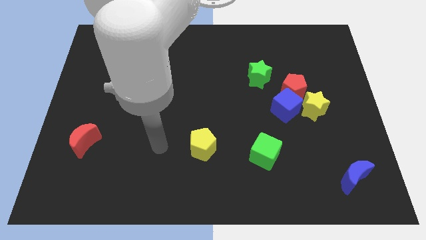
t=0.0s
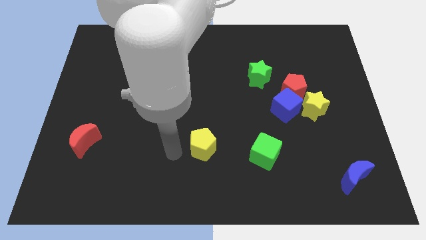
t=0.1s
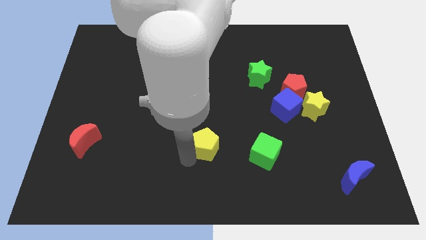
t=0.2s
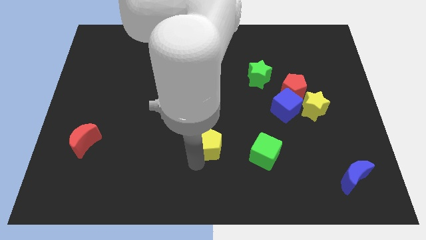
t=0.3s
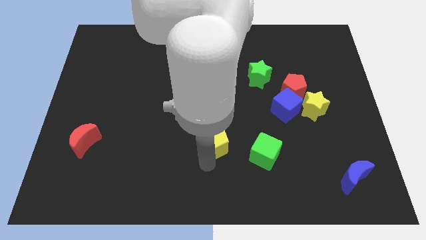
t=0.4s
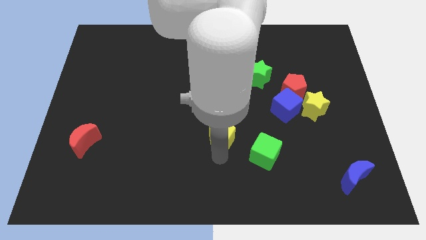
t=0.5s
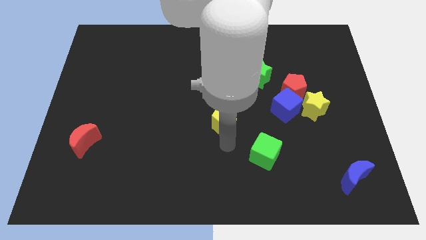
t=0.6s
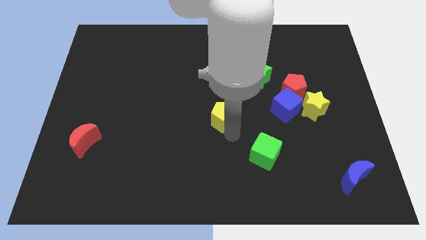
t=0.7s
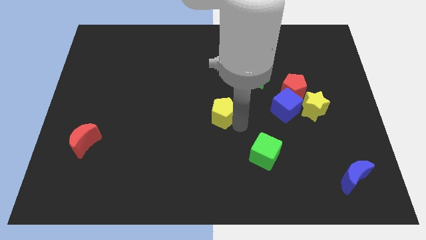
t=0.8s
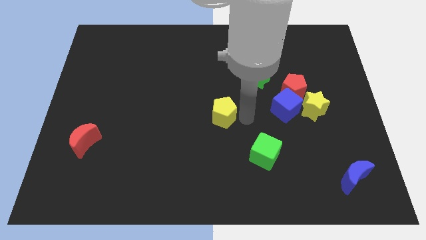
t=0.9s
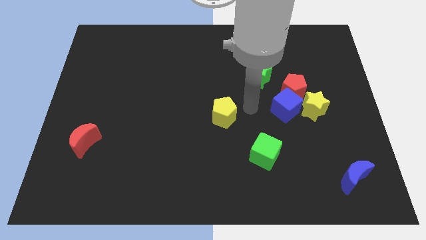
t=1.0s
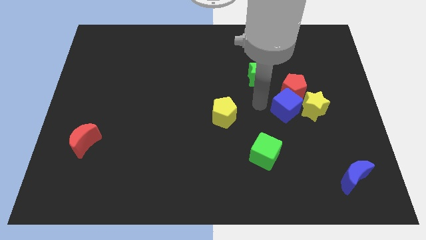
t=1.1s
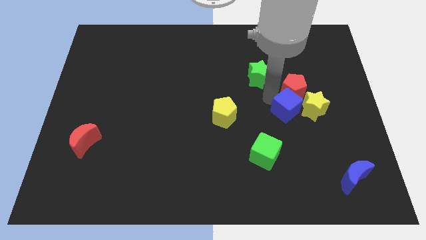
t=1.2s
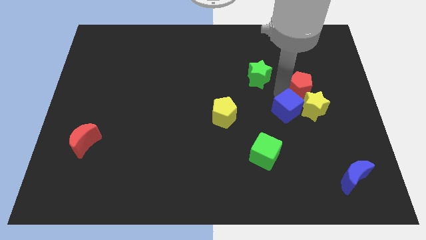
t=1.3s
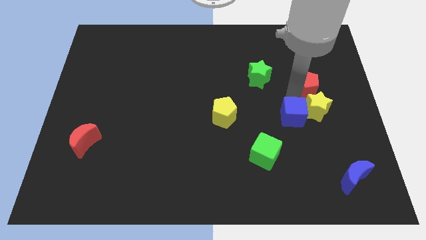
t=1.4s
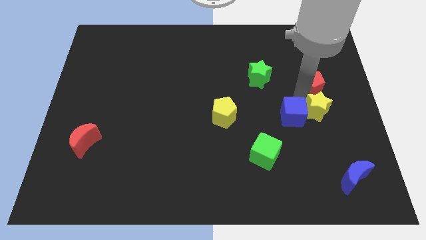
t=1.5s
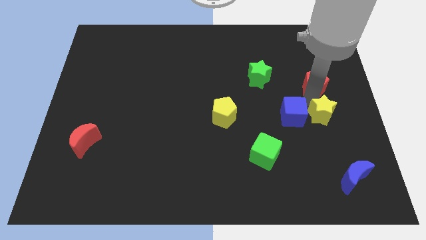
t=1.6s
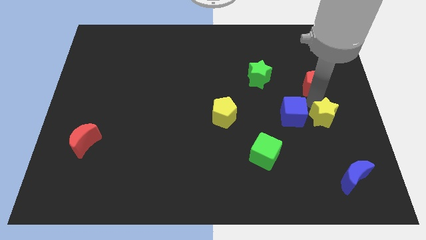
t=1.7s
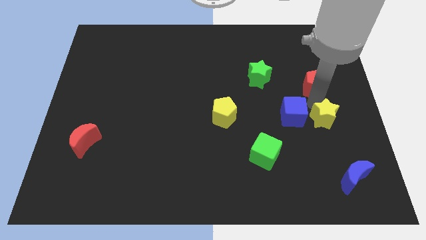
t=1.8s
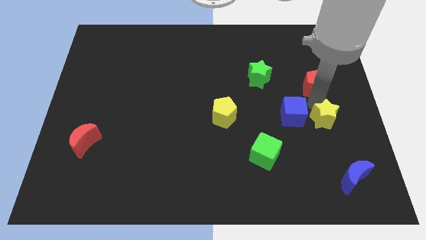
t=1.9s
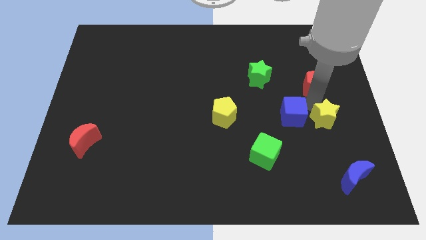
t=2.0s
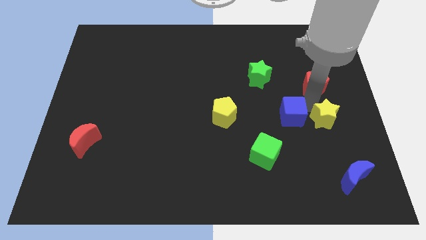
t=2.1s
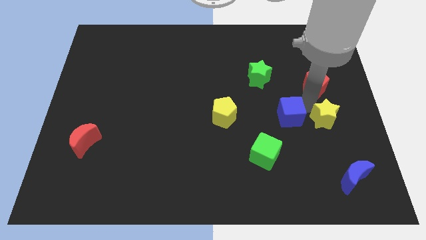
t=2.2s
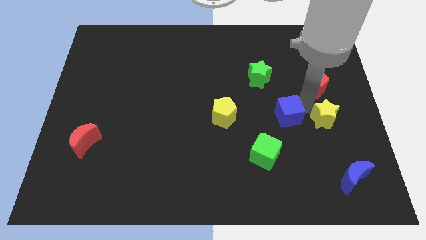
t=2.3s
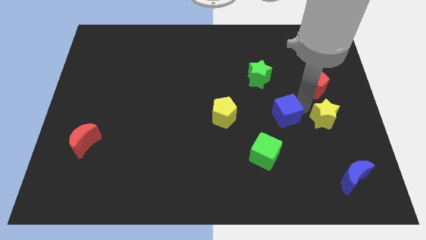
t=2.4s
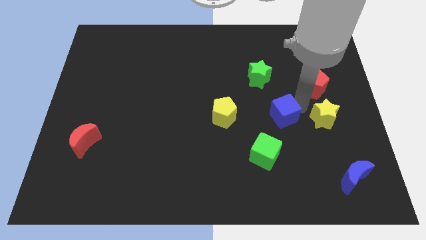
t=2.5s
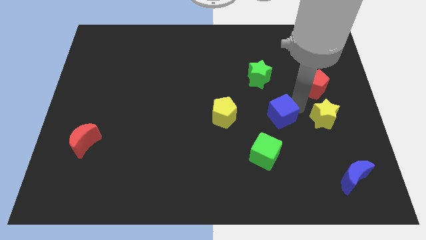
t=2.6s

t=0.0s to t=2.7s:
pull the blue cube apart from the red pentagon and yellow star

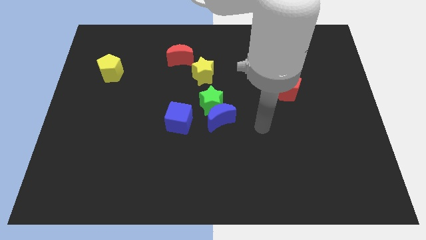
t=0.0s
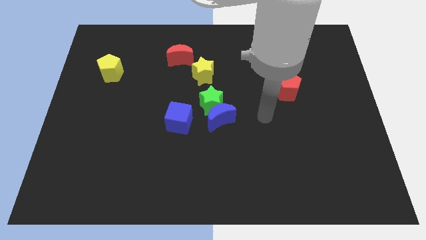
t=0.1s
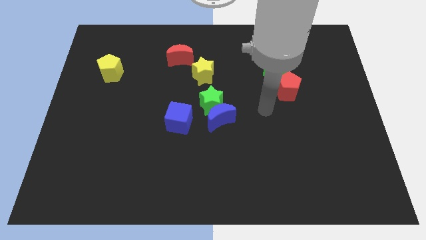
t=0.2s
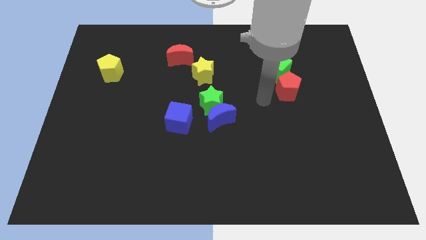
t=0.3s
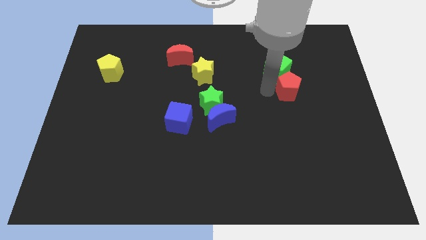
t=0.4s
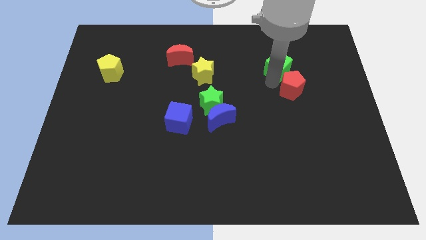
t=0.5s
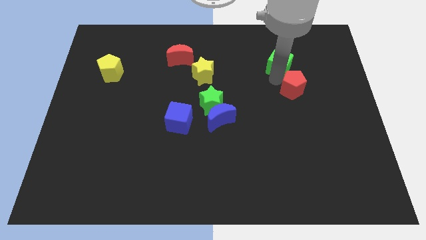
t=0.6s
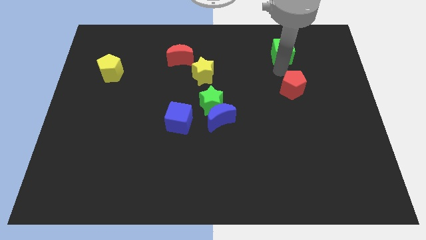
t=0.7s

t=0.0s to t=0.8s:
pull the red pentagon apart from the green cube

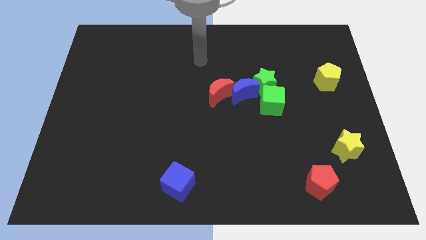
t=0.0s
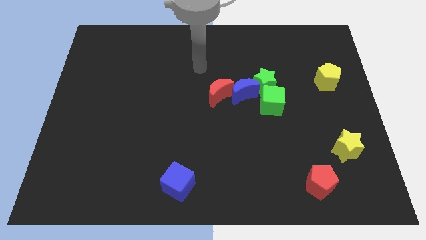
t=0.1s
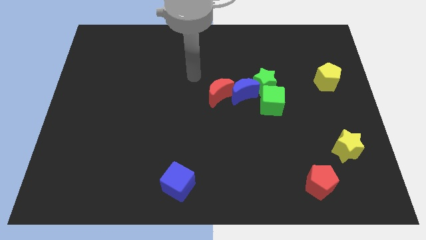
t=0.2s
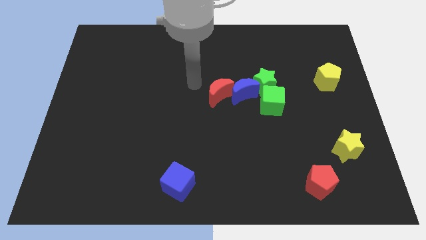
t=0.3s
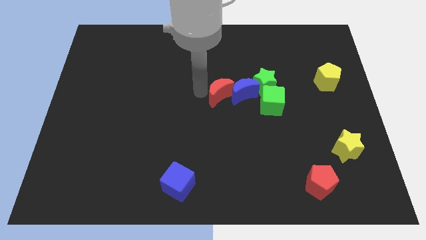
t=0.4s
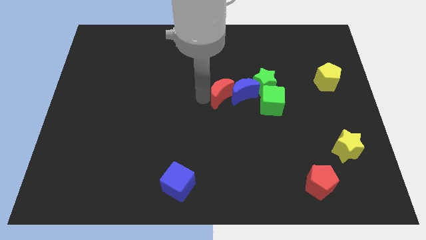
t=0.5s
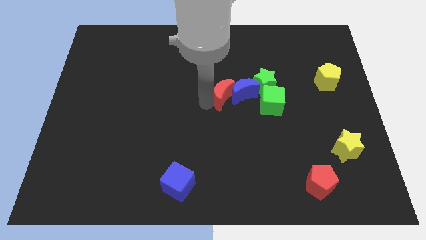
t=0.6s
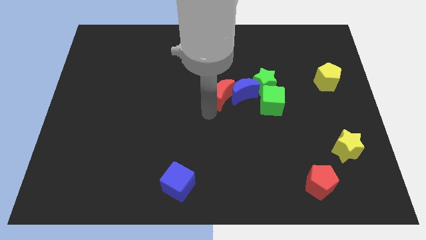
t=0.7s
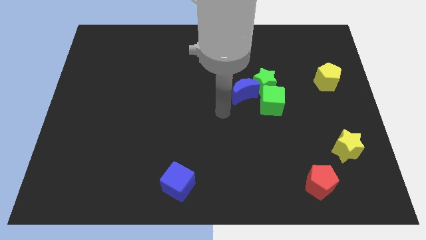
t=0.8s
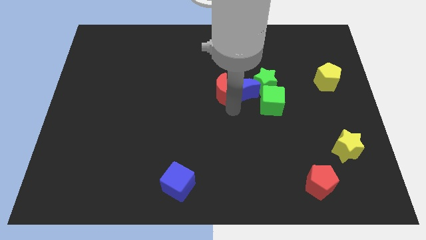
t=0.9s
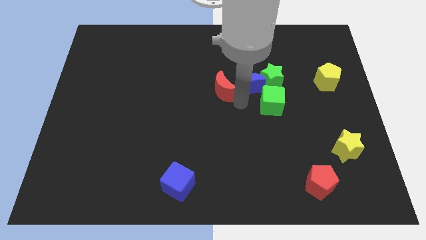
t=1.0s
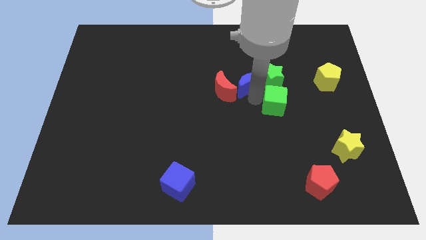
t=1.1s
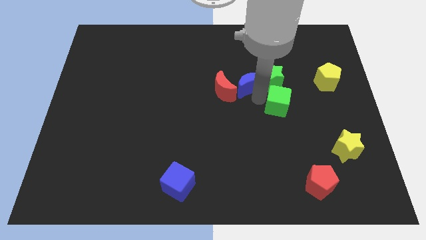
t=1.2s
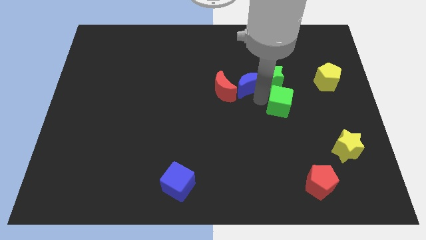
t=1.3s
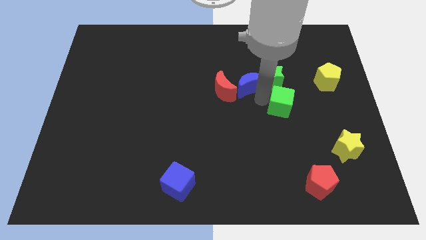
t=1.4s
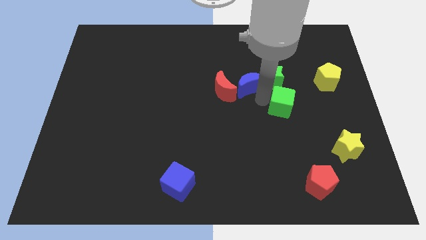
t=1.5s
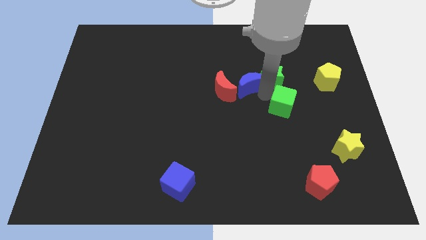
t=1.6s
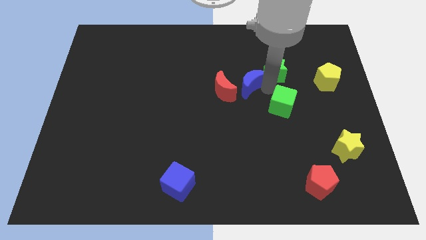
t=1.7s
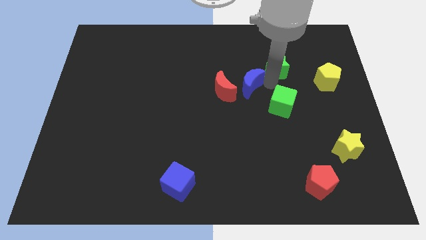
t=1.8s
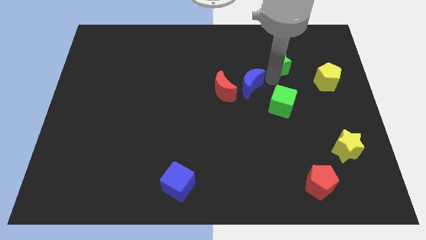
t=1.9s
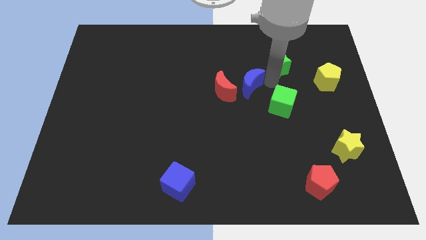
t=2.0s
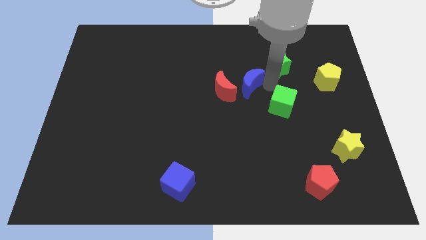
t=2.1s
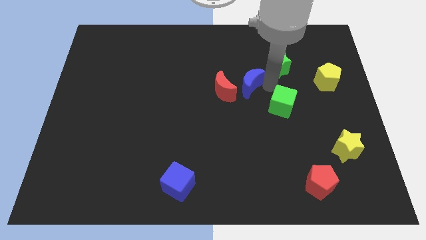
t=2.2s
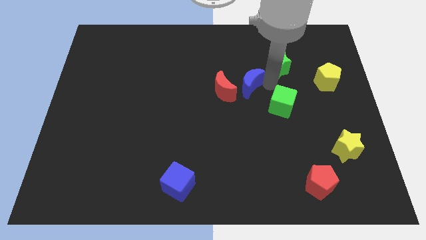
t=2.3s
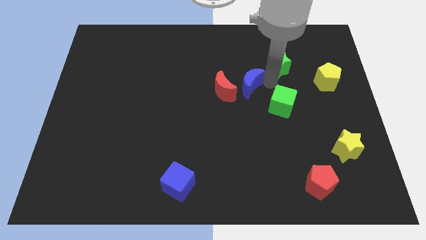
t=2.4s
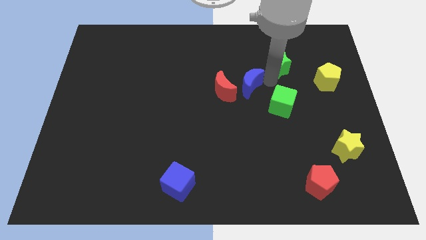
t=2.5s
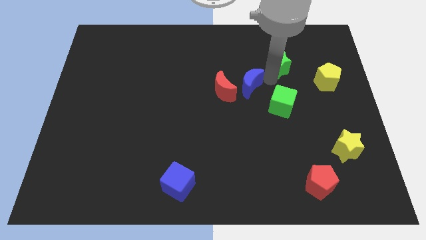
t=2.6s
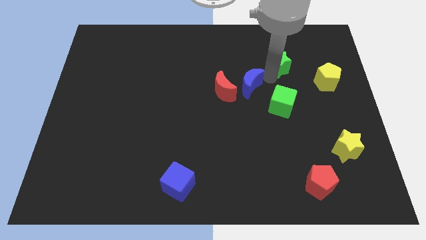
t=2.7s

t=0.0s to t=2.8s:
move the green star away from the blue moon and green cube

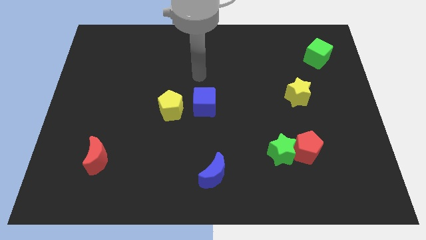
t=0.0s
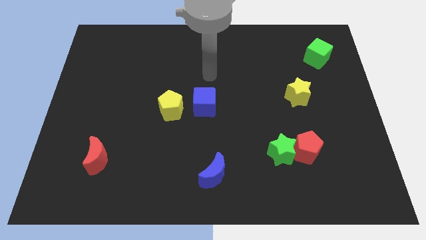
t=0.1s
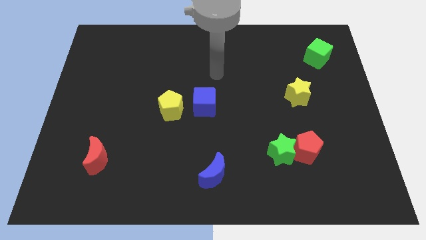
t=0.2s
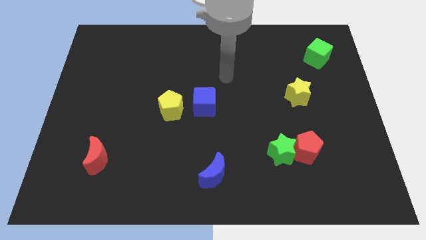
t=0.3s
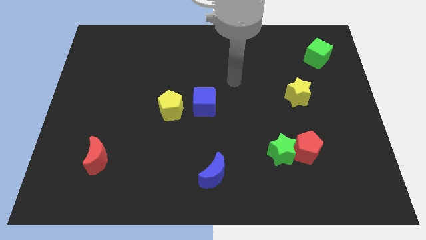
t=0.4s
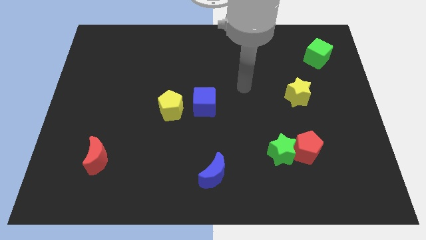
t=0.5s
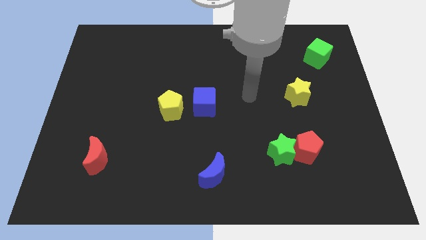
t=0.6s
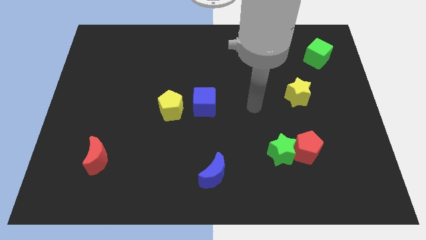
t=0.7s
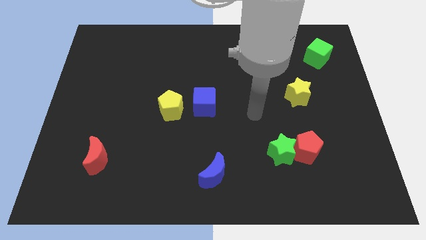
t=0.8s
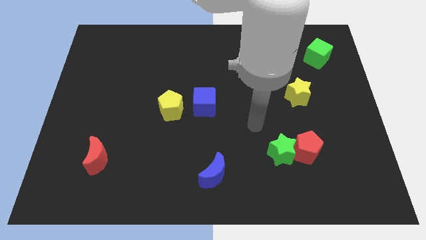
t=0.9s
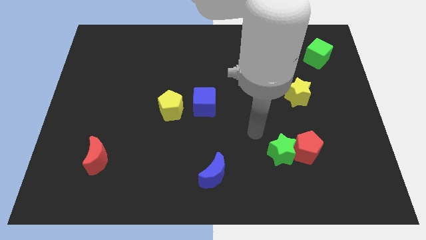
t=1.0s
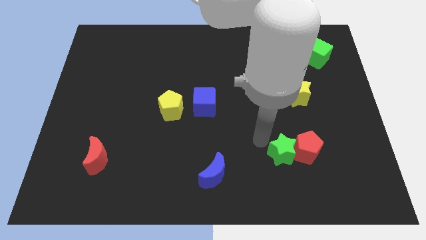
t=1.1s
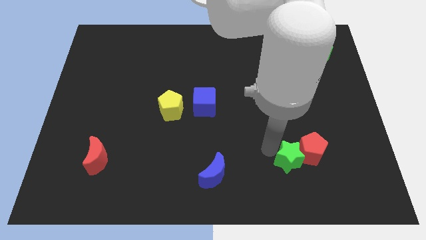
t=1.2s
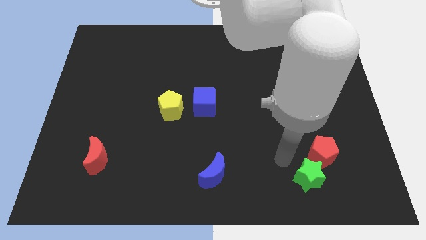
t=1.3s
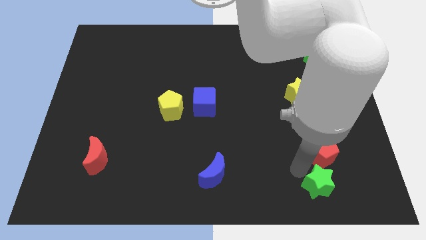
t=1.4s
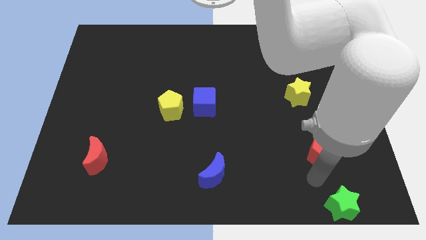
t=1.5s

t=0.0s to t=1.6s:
separate the red pentagon from the green star

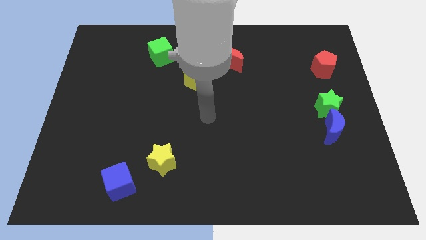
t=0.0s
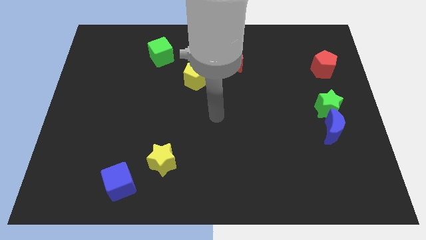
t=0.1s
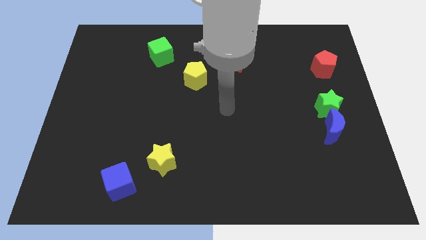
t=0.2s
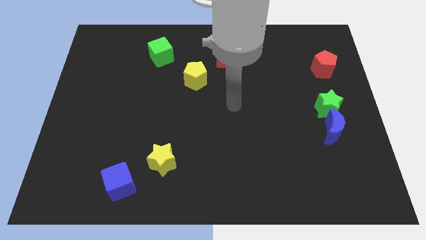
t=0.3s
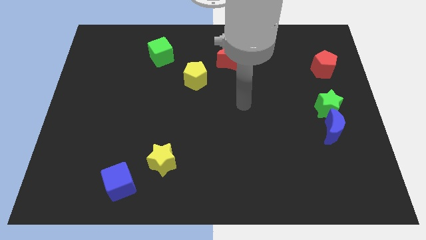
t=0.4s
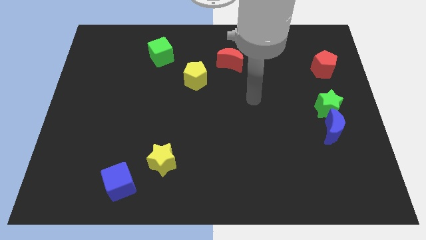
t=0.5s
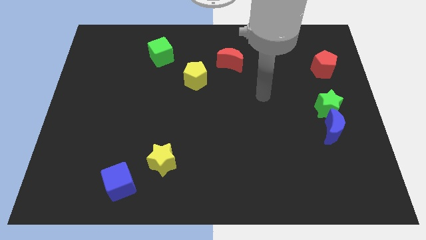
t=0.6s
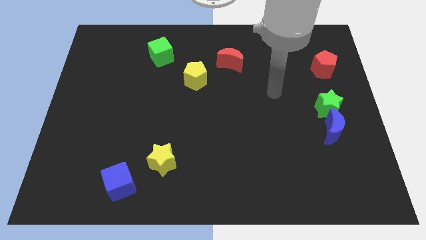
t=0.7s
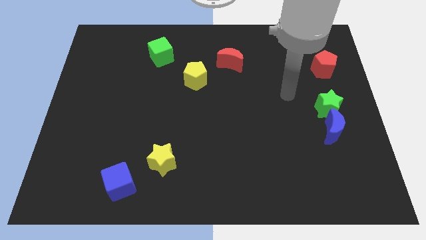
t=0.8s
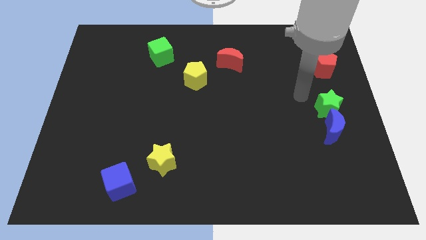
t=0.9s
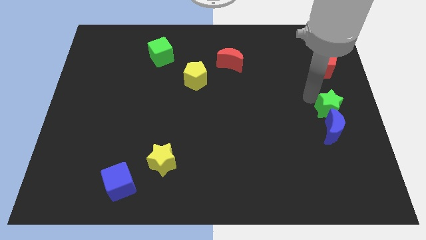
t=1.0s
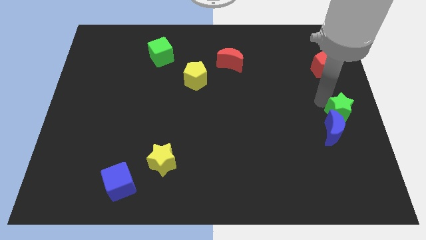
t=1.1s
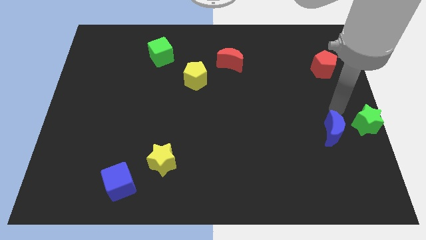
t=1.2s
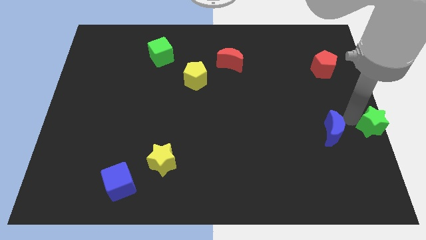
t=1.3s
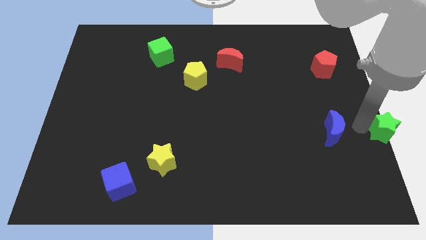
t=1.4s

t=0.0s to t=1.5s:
separate the blue moon from the green star

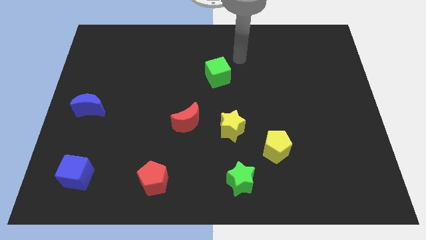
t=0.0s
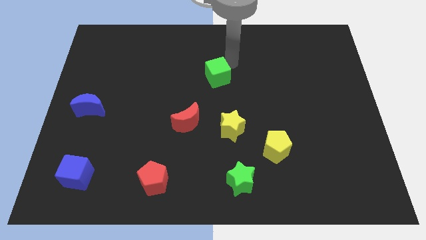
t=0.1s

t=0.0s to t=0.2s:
pull the red moon apart from the yellow star
